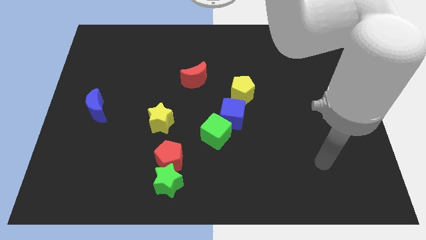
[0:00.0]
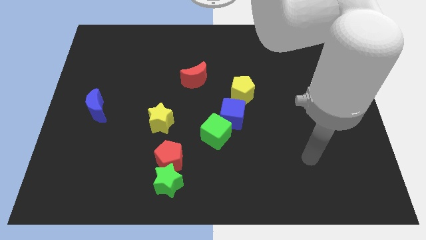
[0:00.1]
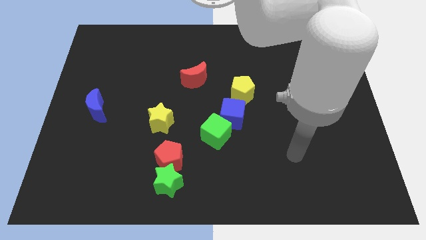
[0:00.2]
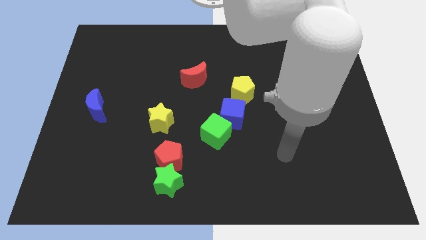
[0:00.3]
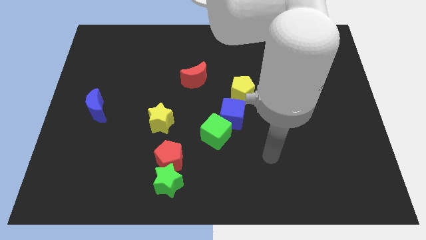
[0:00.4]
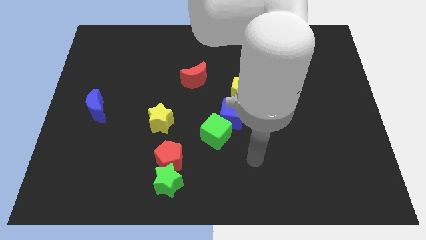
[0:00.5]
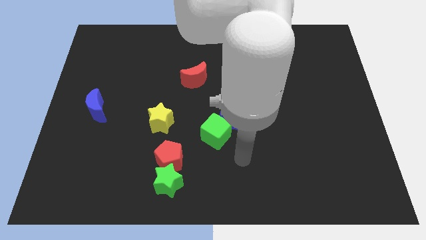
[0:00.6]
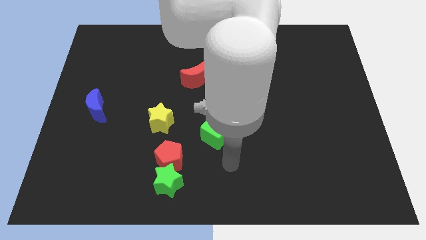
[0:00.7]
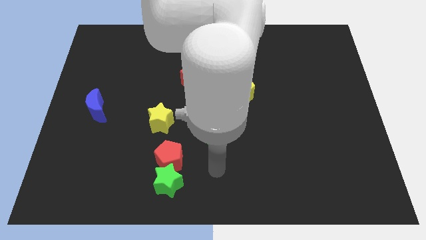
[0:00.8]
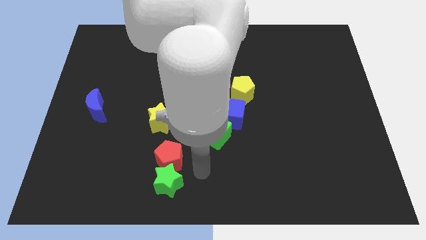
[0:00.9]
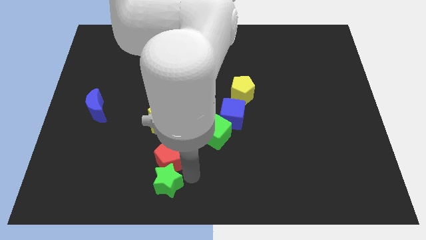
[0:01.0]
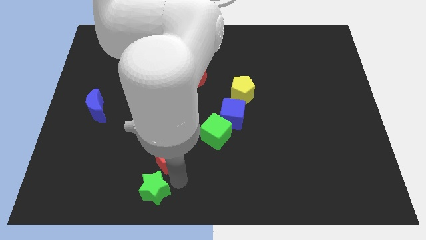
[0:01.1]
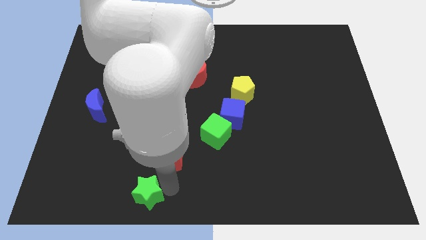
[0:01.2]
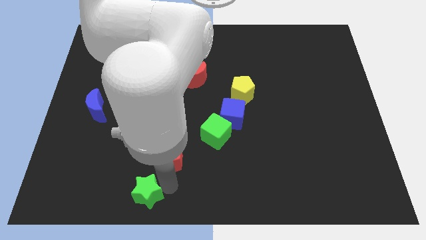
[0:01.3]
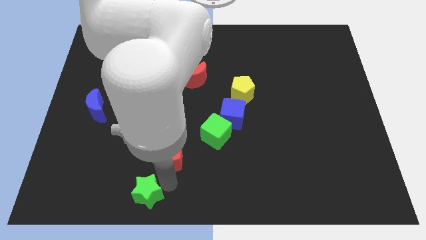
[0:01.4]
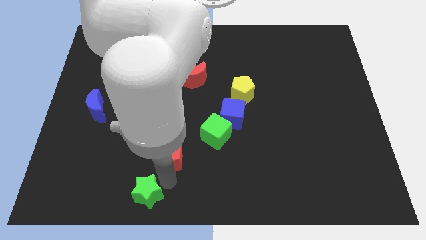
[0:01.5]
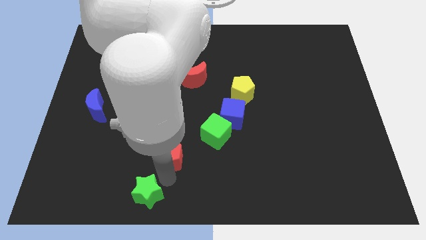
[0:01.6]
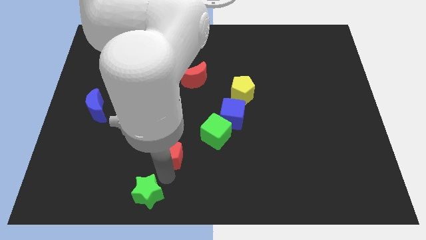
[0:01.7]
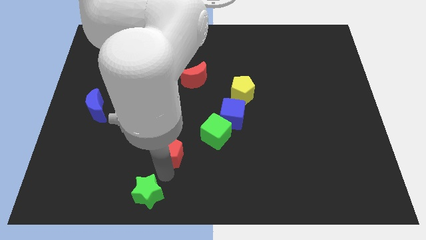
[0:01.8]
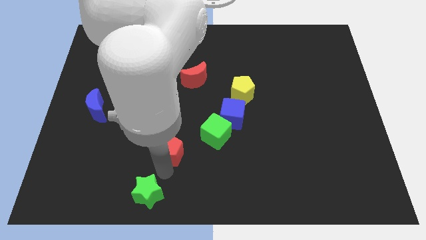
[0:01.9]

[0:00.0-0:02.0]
move the red pentagon away from the green star

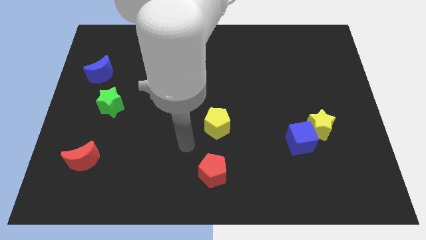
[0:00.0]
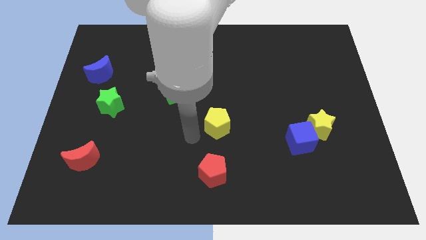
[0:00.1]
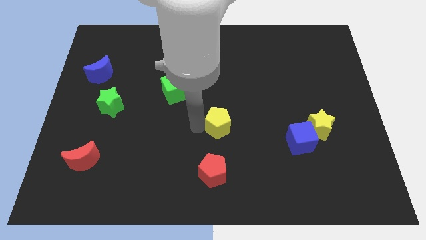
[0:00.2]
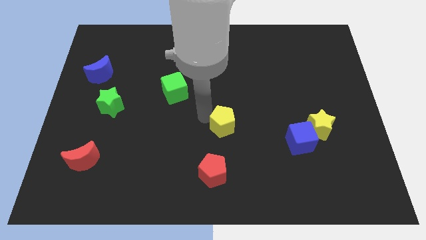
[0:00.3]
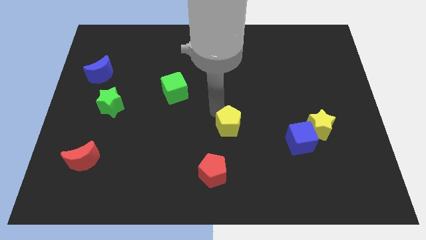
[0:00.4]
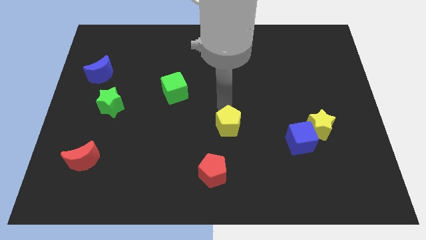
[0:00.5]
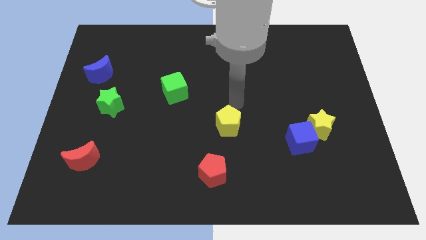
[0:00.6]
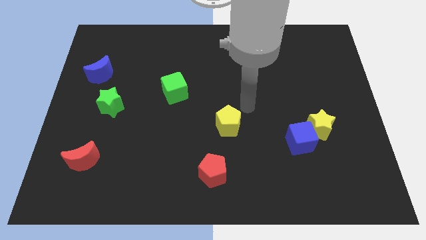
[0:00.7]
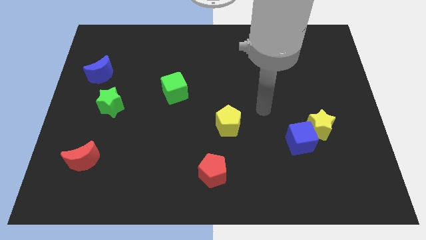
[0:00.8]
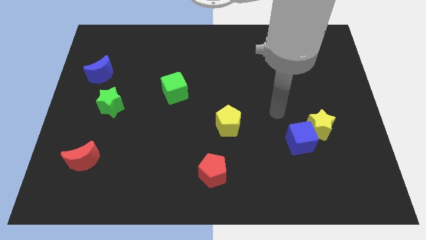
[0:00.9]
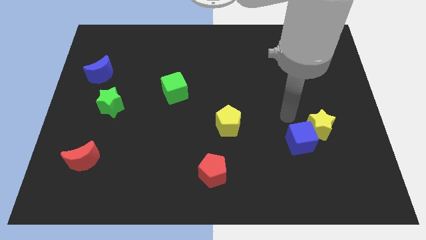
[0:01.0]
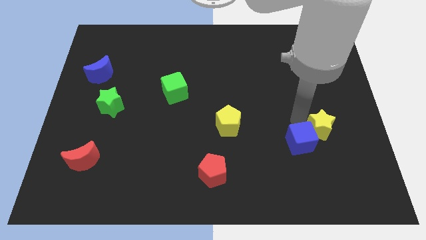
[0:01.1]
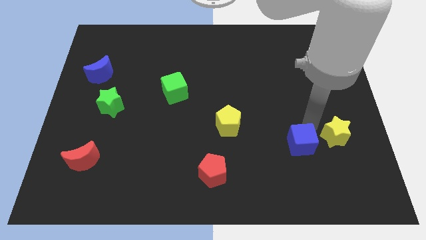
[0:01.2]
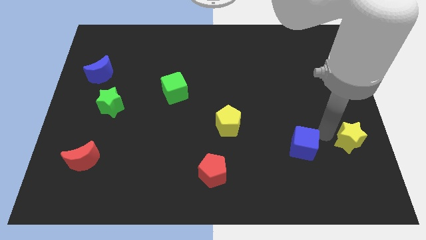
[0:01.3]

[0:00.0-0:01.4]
move the blue cube away from the yellow star

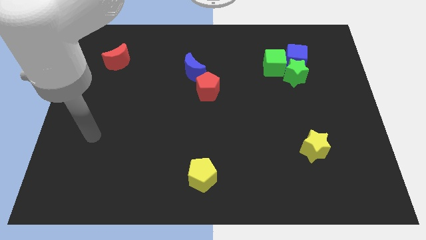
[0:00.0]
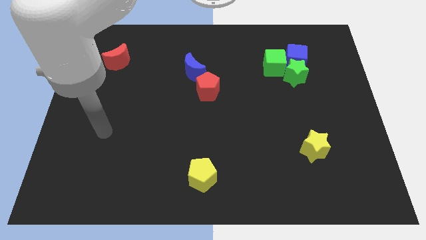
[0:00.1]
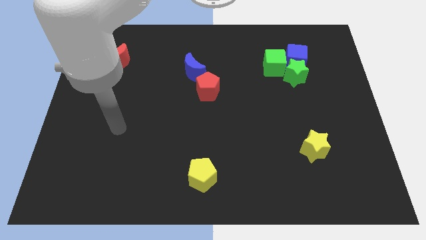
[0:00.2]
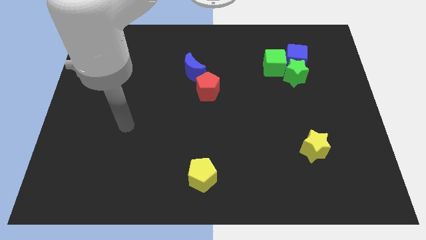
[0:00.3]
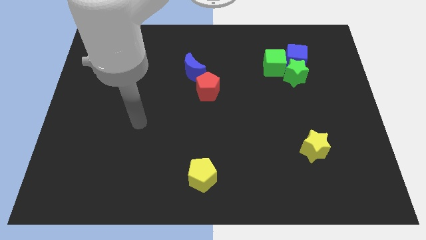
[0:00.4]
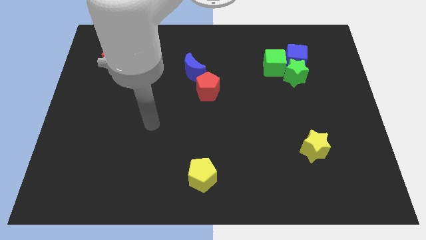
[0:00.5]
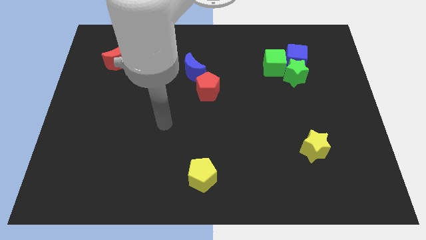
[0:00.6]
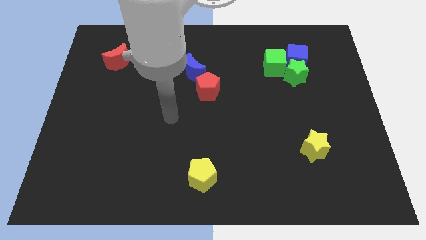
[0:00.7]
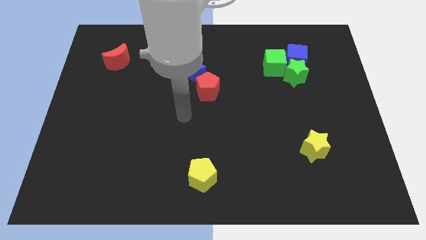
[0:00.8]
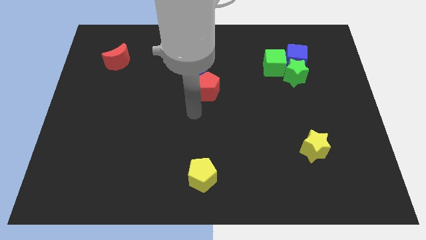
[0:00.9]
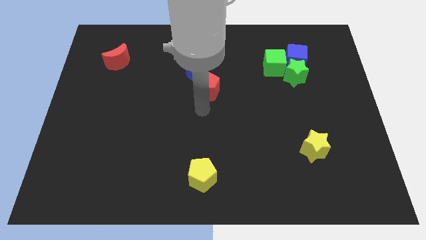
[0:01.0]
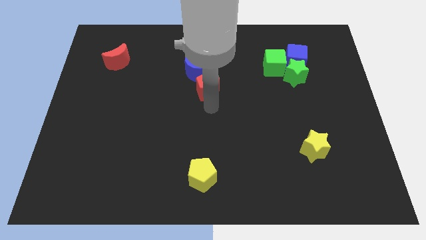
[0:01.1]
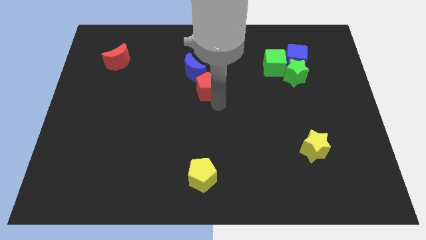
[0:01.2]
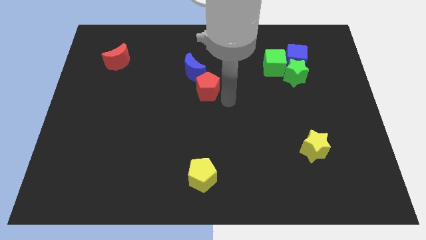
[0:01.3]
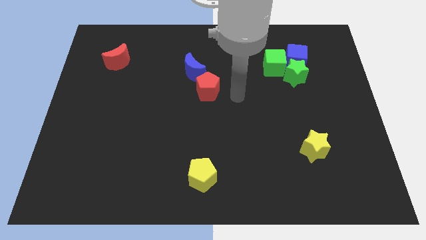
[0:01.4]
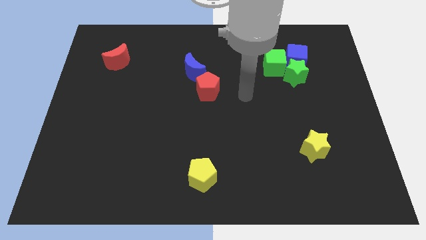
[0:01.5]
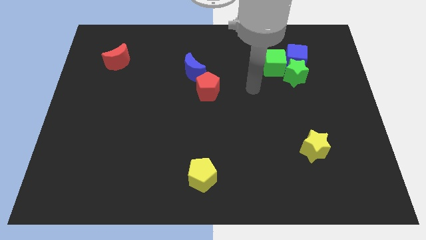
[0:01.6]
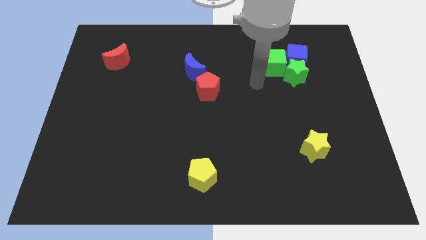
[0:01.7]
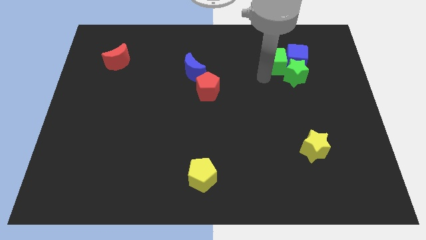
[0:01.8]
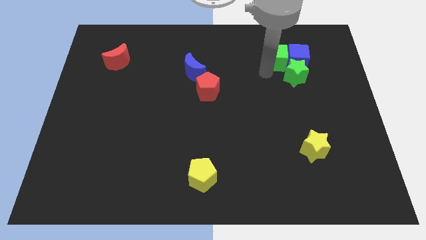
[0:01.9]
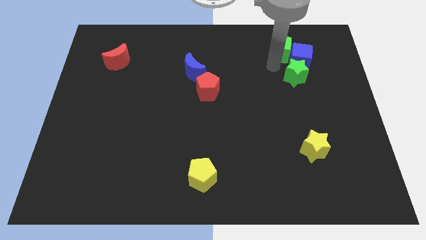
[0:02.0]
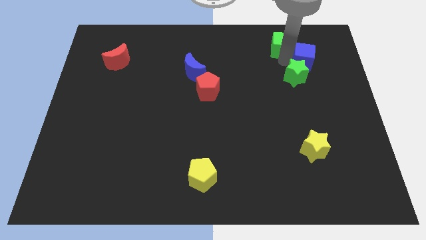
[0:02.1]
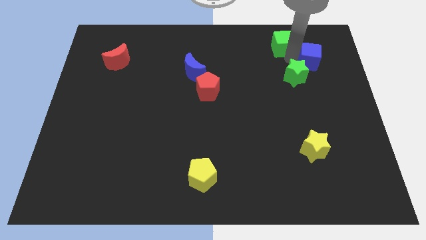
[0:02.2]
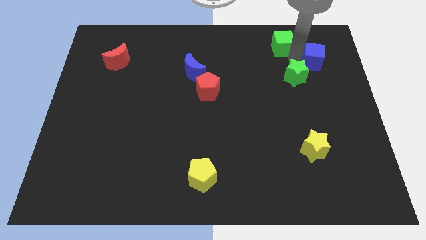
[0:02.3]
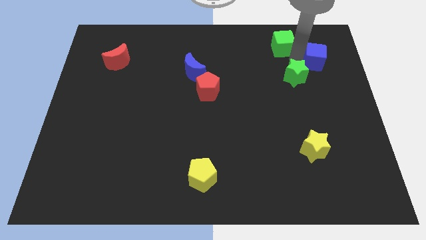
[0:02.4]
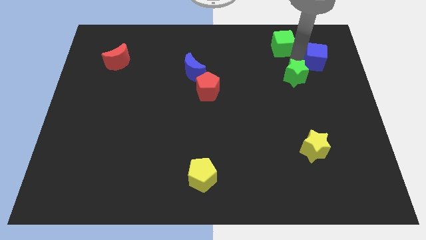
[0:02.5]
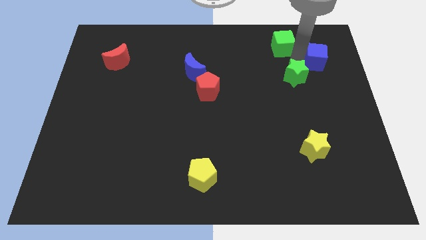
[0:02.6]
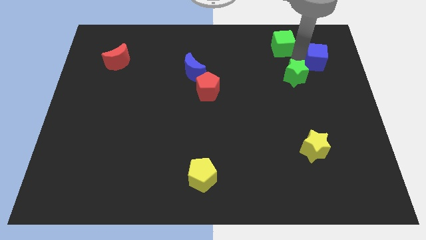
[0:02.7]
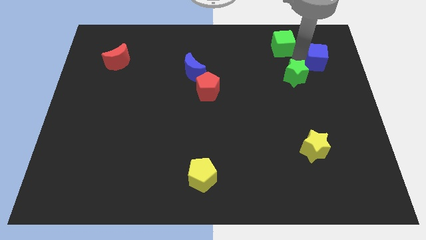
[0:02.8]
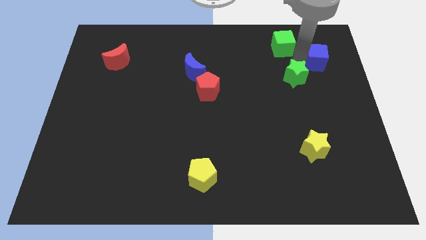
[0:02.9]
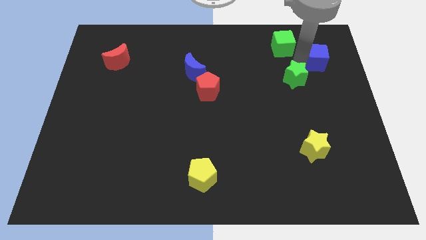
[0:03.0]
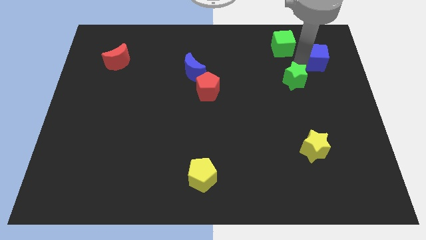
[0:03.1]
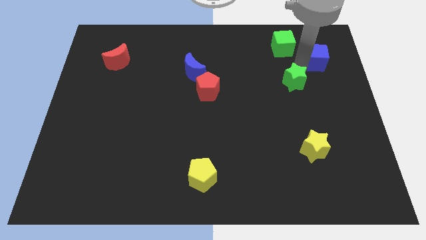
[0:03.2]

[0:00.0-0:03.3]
pull the green star apart from the blue cube and green cube

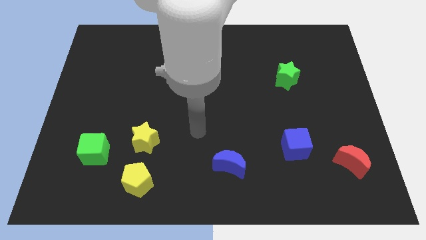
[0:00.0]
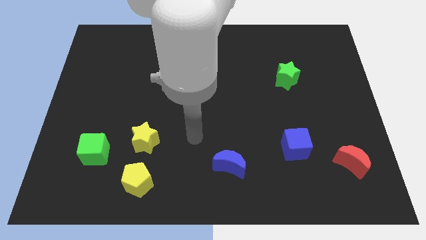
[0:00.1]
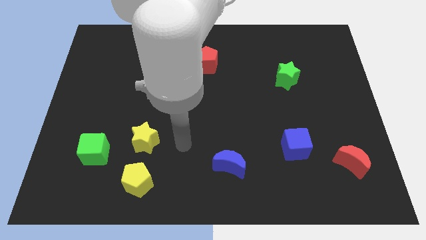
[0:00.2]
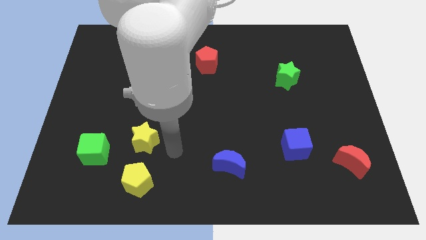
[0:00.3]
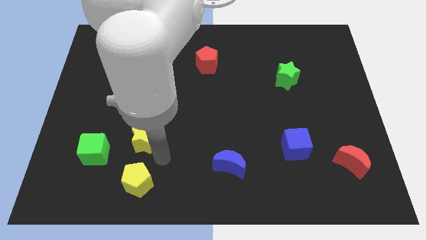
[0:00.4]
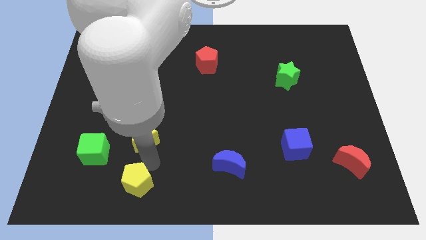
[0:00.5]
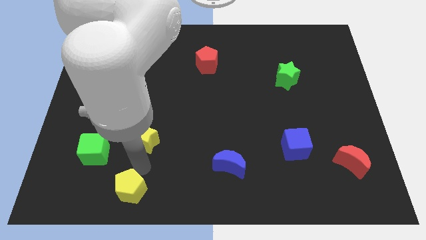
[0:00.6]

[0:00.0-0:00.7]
pull the yellow star apart from the yellow pentagon

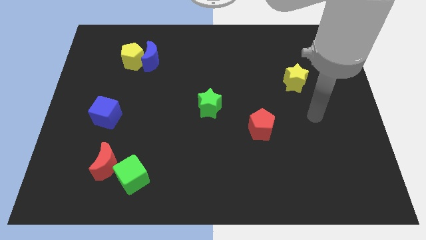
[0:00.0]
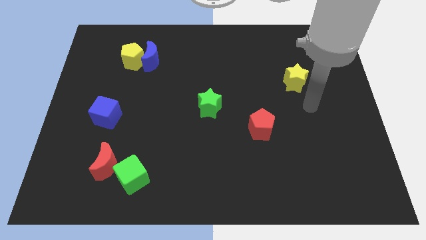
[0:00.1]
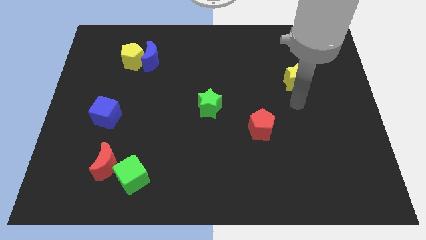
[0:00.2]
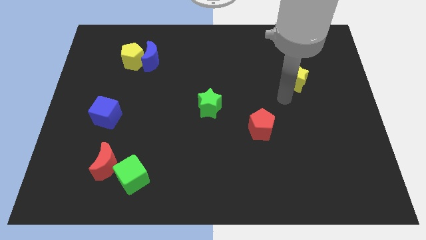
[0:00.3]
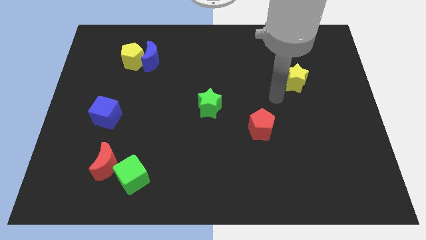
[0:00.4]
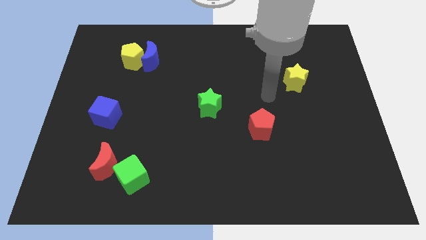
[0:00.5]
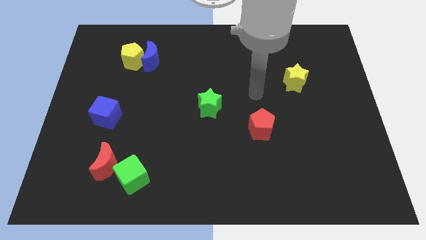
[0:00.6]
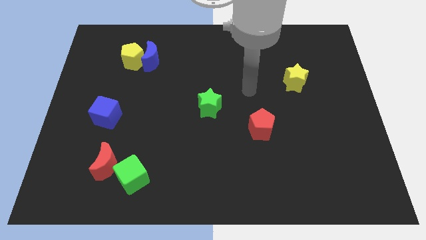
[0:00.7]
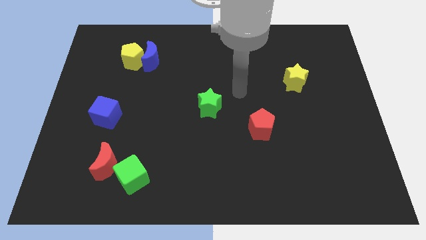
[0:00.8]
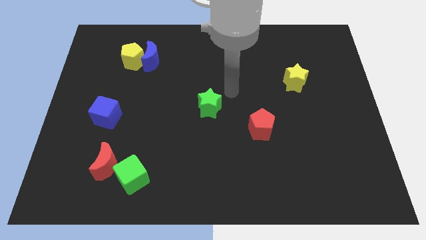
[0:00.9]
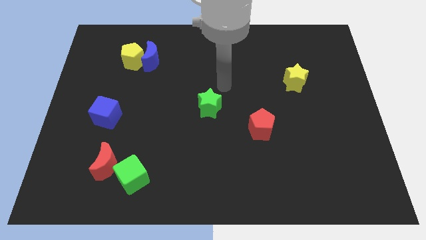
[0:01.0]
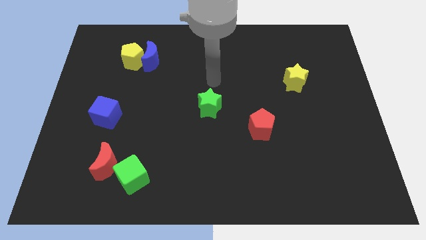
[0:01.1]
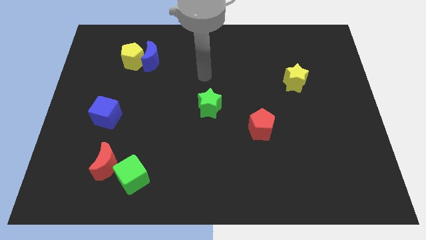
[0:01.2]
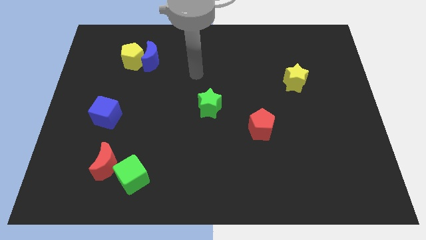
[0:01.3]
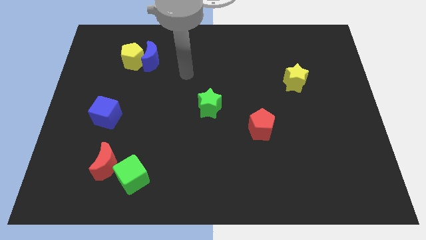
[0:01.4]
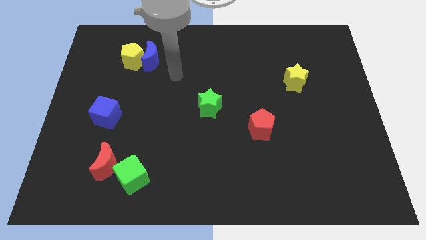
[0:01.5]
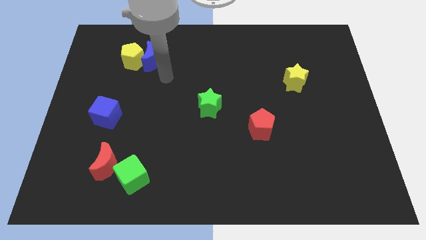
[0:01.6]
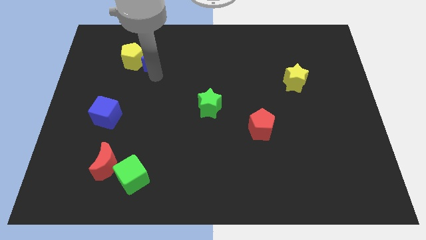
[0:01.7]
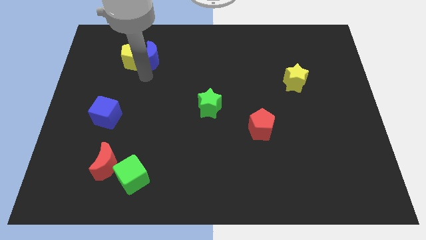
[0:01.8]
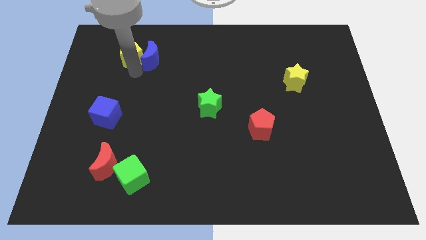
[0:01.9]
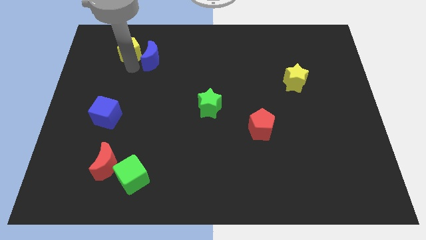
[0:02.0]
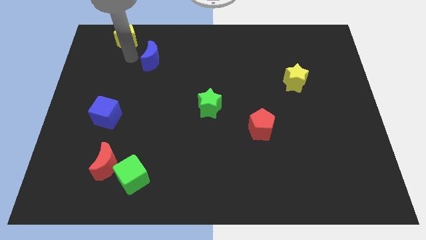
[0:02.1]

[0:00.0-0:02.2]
pull the blue moon apart from the yellow pentagon
